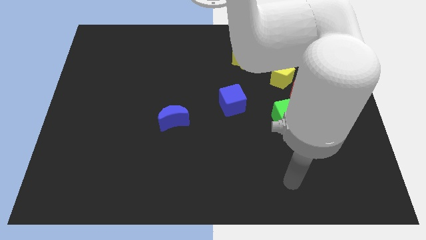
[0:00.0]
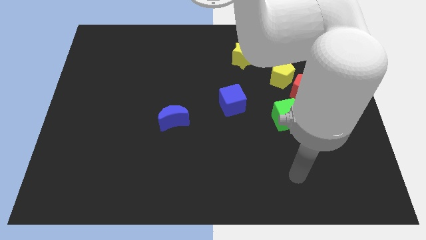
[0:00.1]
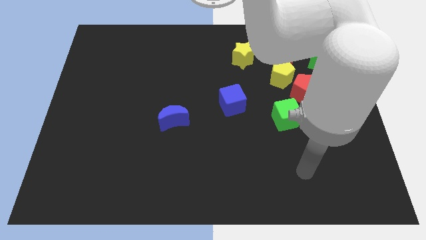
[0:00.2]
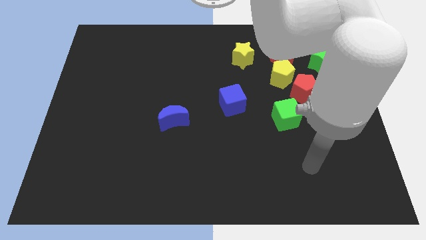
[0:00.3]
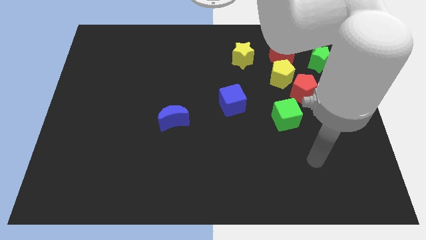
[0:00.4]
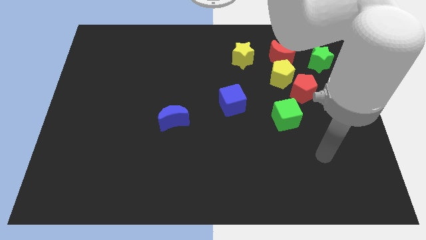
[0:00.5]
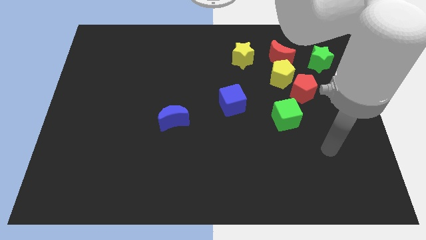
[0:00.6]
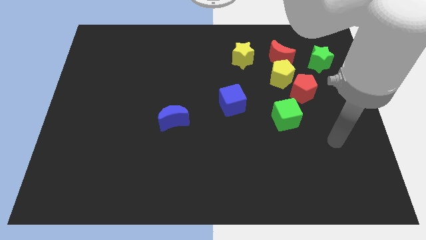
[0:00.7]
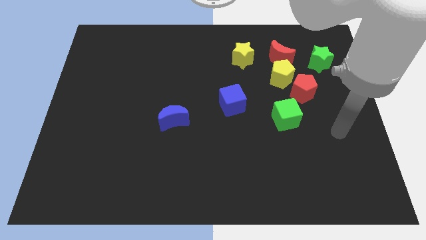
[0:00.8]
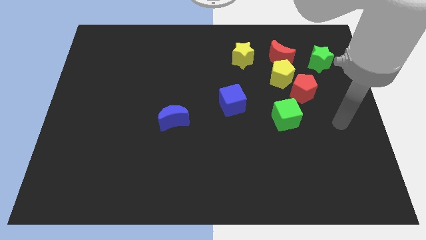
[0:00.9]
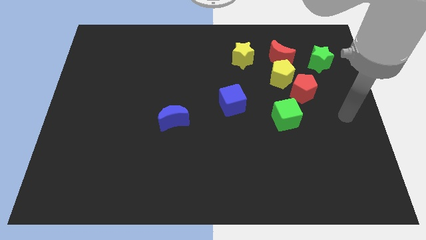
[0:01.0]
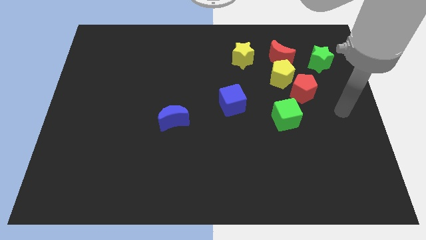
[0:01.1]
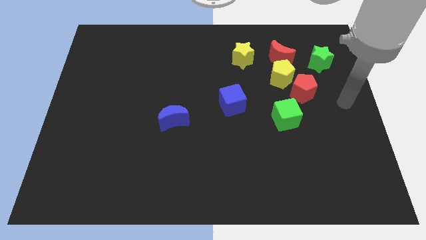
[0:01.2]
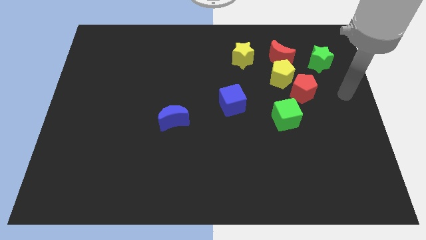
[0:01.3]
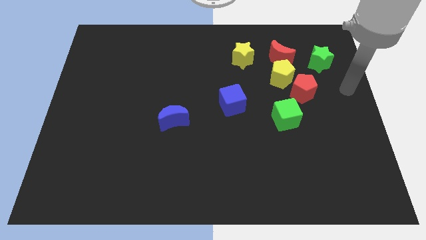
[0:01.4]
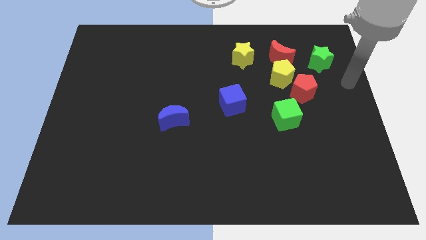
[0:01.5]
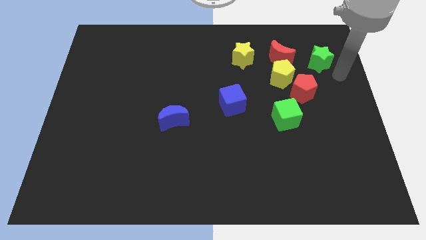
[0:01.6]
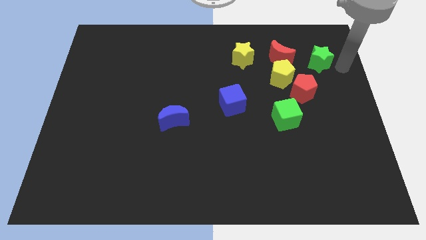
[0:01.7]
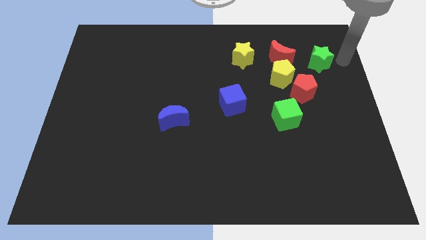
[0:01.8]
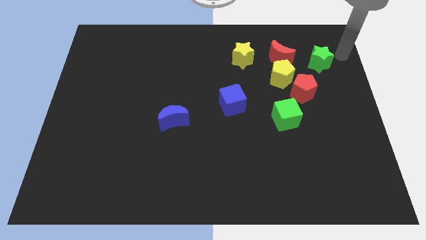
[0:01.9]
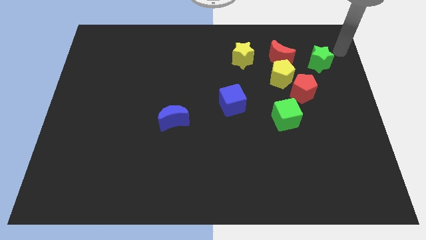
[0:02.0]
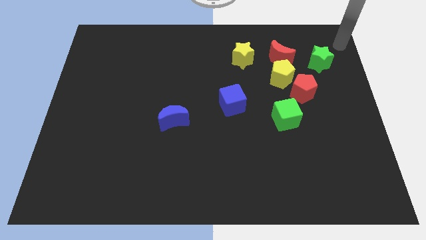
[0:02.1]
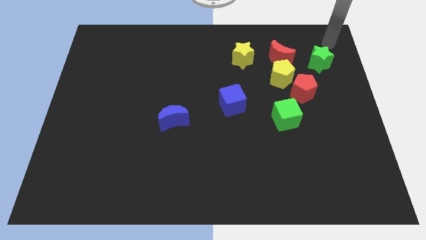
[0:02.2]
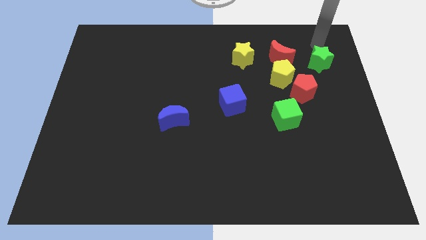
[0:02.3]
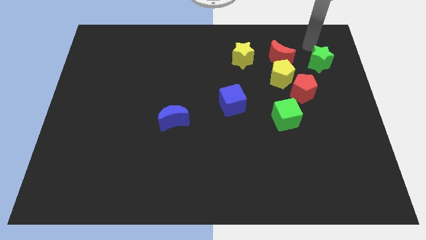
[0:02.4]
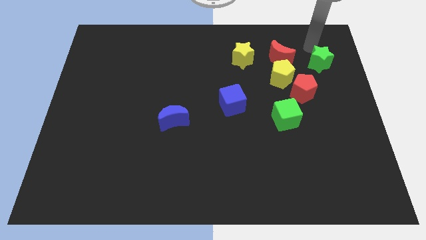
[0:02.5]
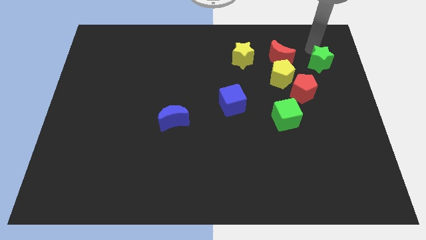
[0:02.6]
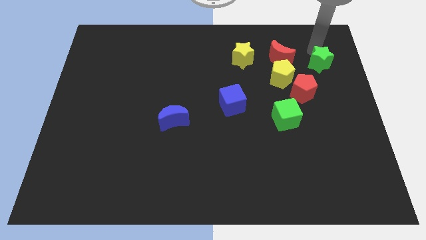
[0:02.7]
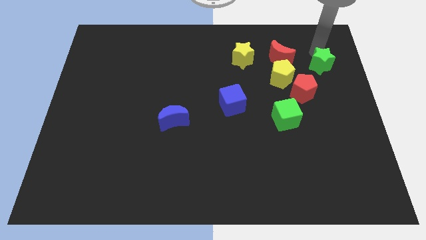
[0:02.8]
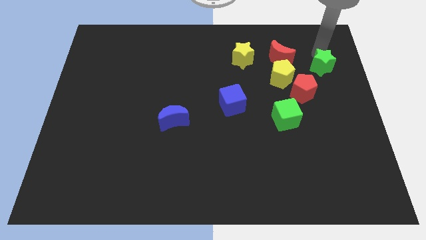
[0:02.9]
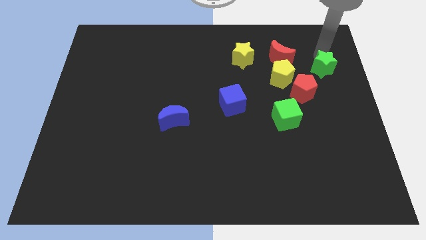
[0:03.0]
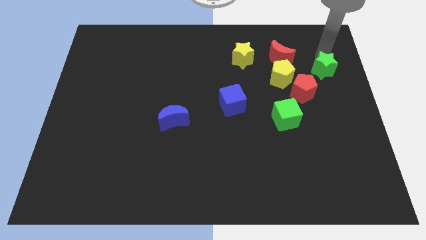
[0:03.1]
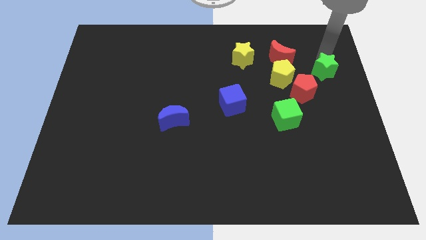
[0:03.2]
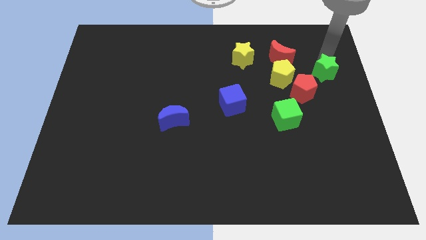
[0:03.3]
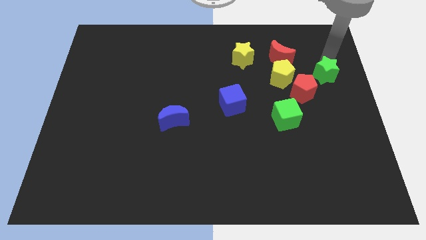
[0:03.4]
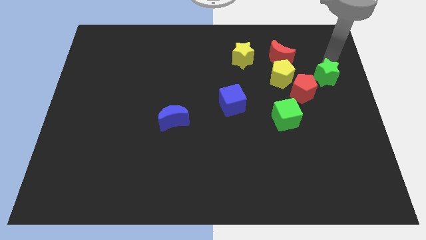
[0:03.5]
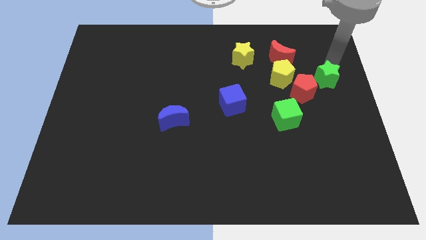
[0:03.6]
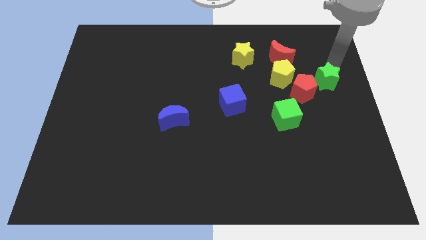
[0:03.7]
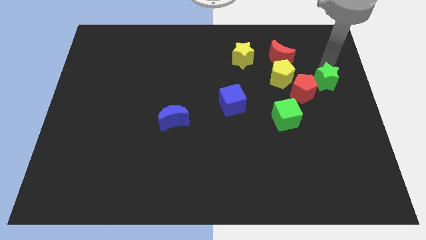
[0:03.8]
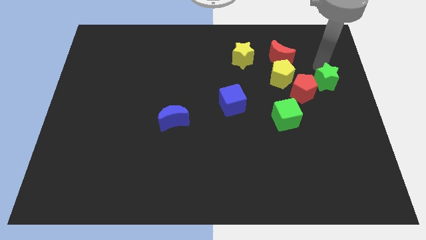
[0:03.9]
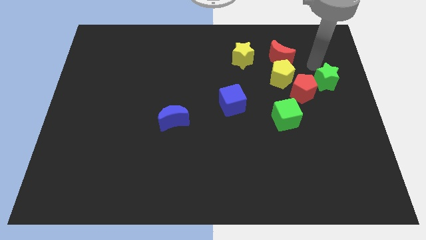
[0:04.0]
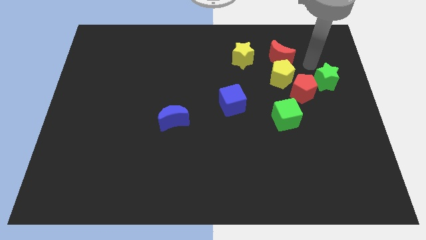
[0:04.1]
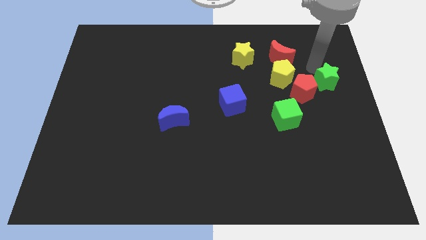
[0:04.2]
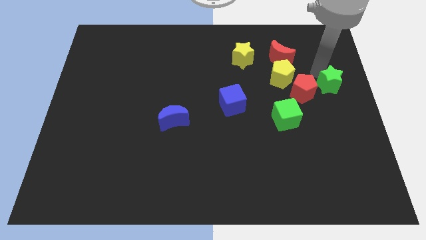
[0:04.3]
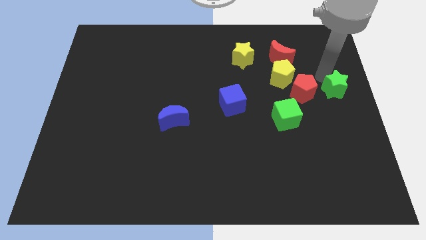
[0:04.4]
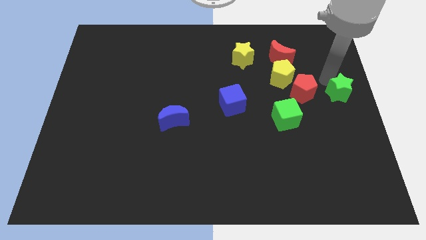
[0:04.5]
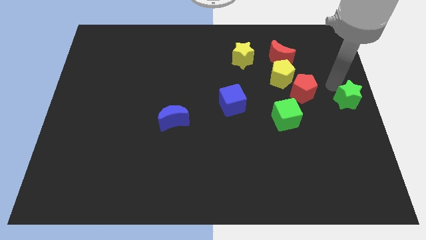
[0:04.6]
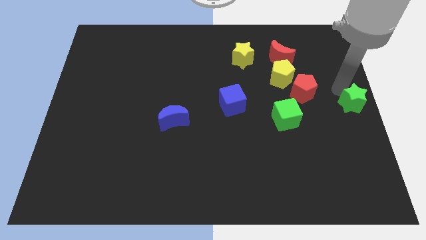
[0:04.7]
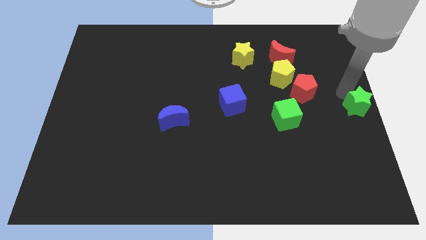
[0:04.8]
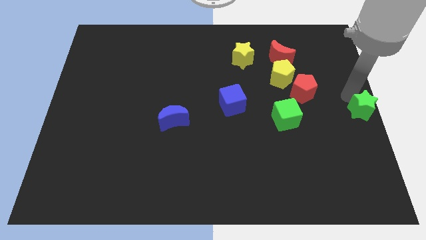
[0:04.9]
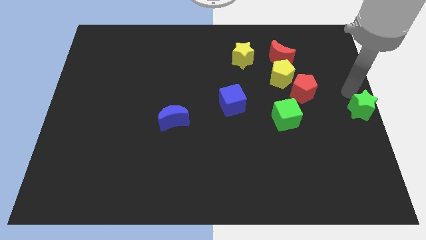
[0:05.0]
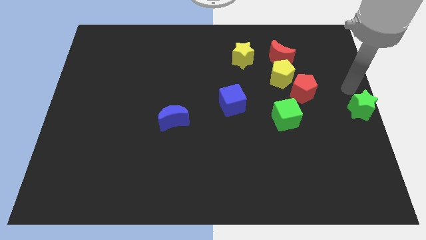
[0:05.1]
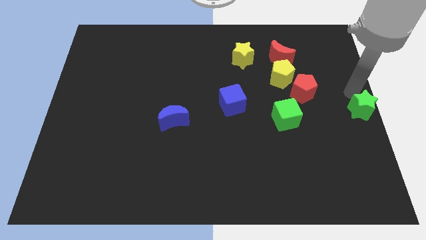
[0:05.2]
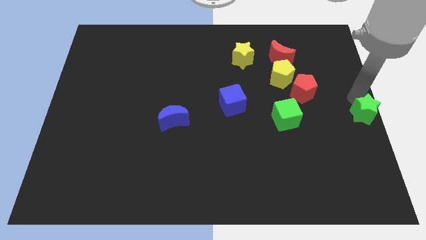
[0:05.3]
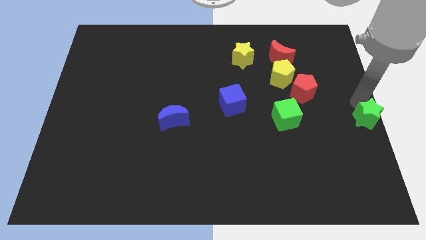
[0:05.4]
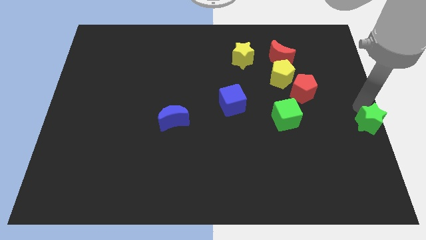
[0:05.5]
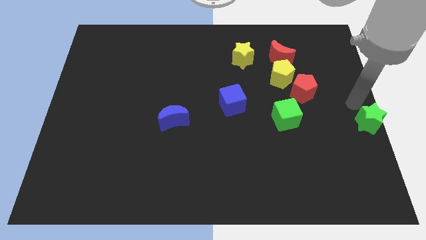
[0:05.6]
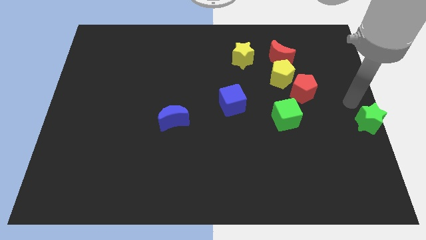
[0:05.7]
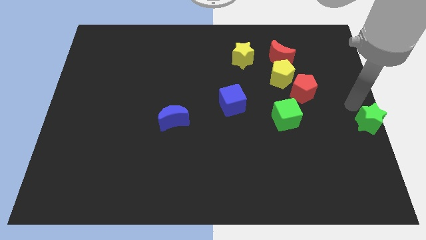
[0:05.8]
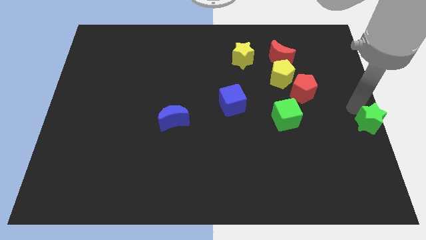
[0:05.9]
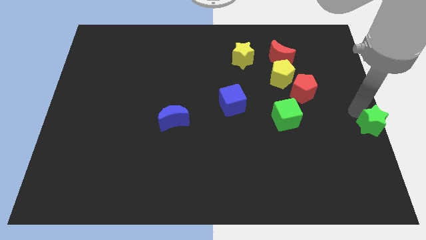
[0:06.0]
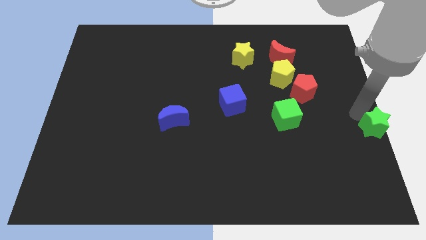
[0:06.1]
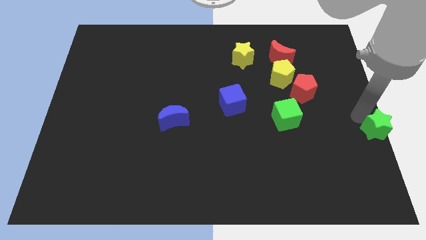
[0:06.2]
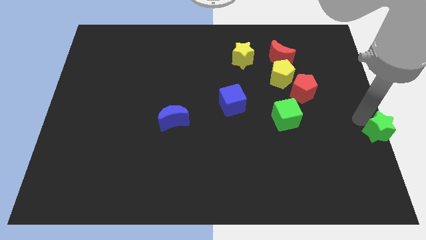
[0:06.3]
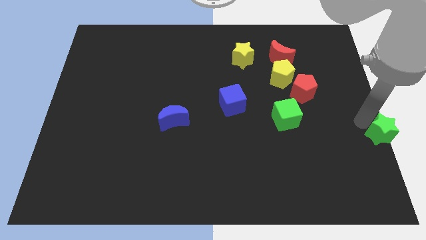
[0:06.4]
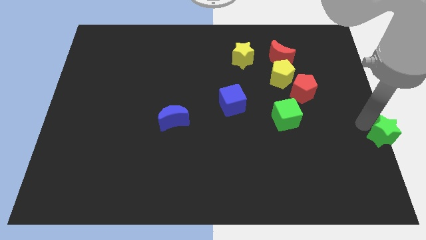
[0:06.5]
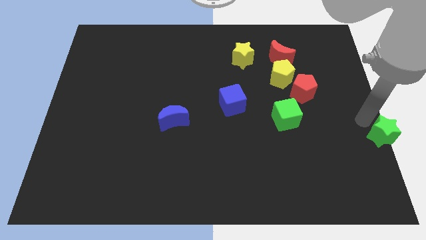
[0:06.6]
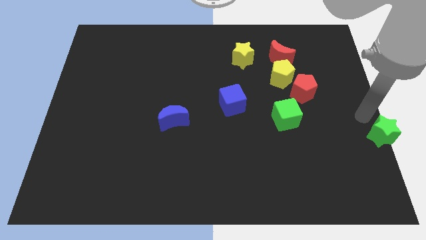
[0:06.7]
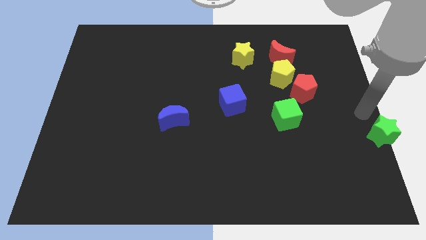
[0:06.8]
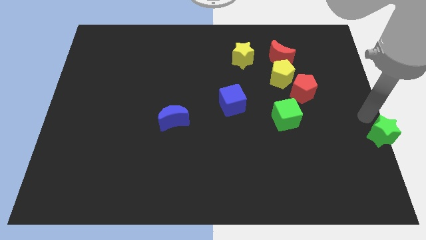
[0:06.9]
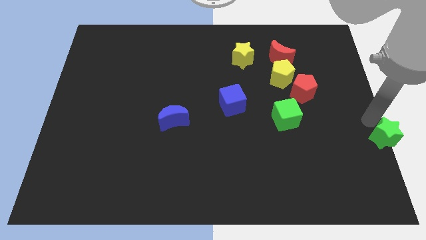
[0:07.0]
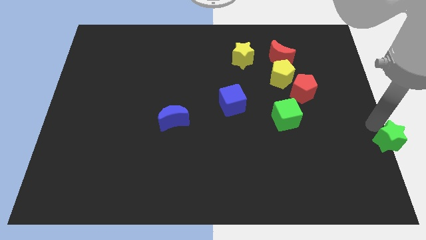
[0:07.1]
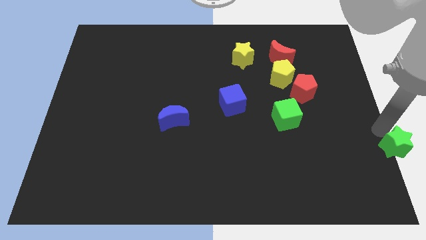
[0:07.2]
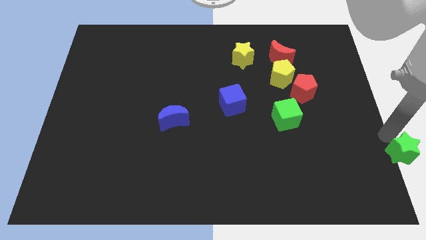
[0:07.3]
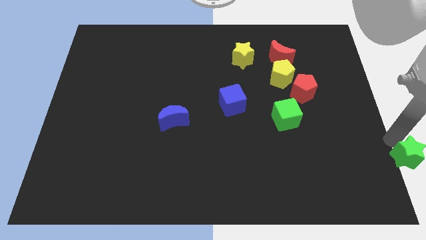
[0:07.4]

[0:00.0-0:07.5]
move the green star to the lower right corner
